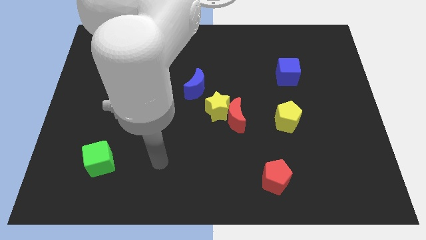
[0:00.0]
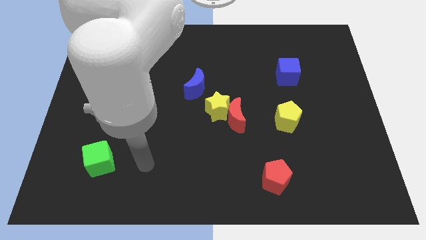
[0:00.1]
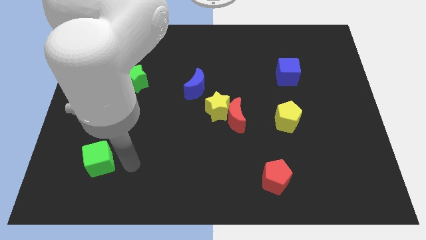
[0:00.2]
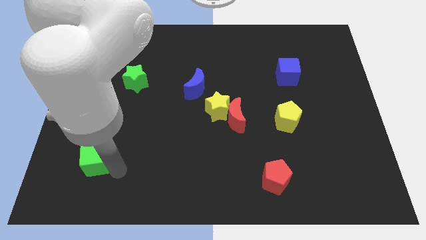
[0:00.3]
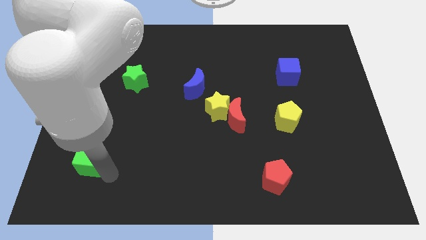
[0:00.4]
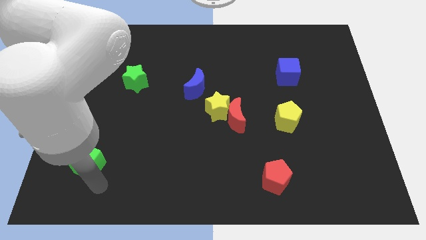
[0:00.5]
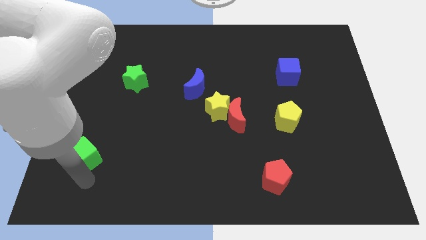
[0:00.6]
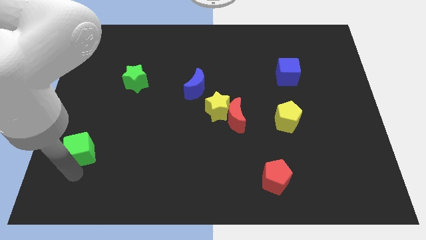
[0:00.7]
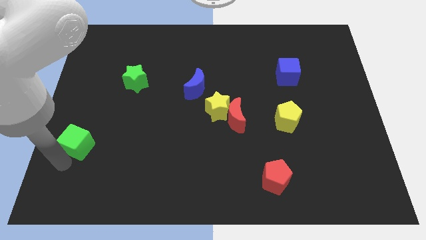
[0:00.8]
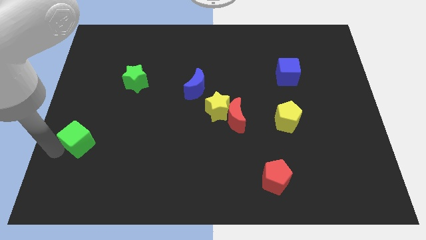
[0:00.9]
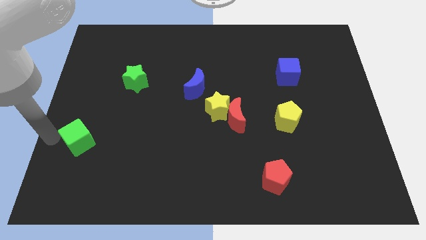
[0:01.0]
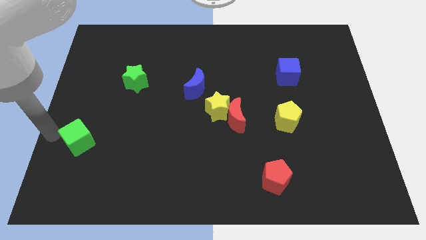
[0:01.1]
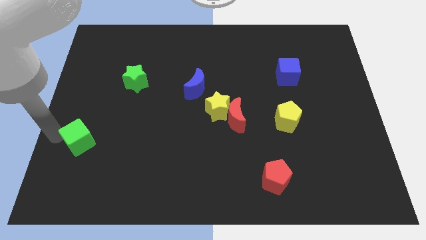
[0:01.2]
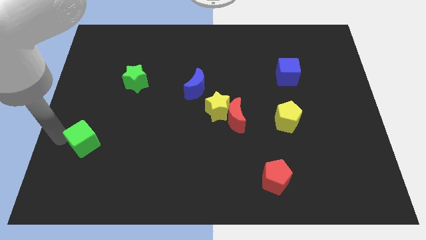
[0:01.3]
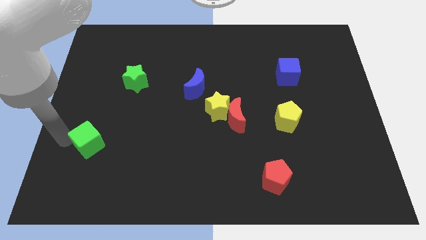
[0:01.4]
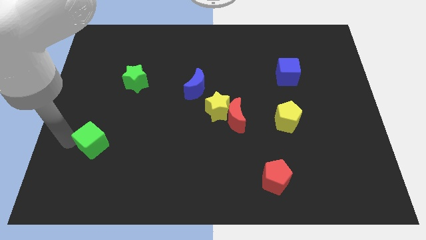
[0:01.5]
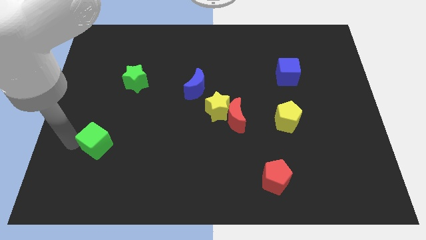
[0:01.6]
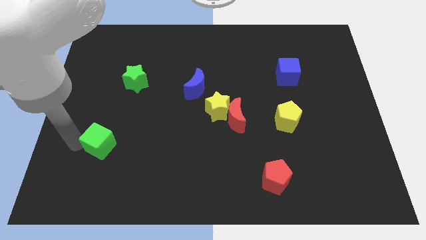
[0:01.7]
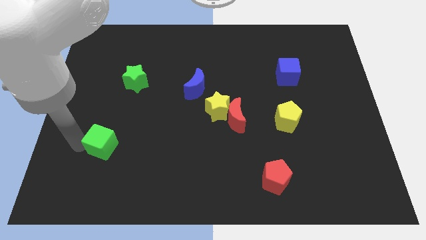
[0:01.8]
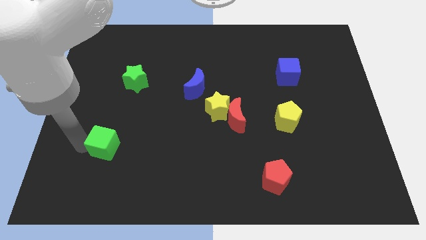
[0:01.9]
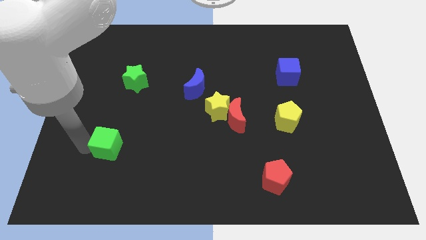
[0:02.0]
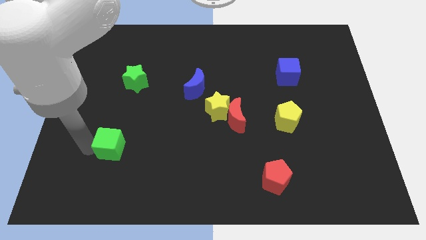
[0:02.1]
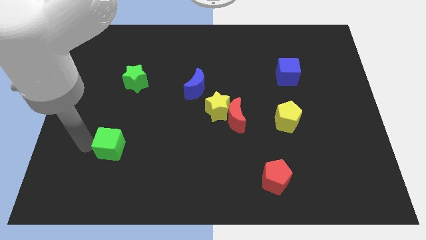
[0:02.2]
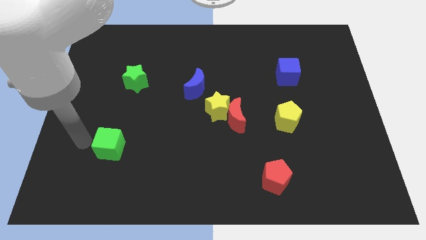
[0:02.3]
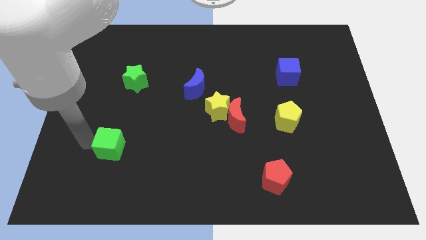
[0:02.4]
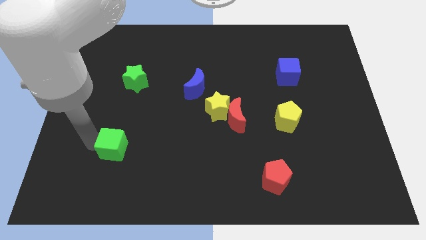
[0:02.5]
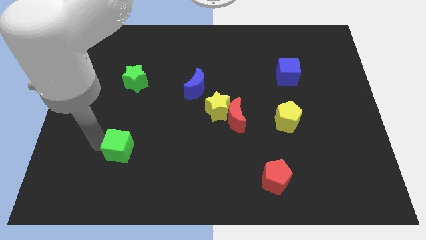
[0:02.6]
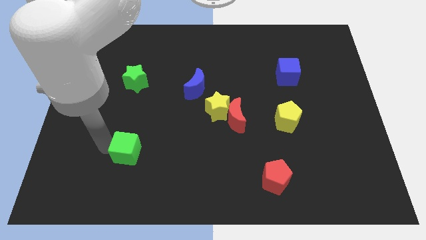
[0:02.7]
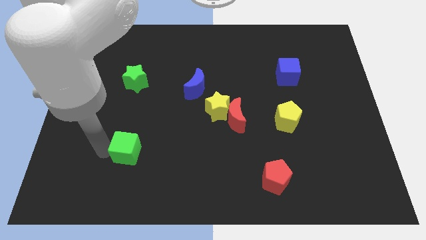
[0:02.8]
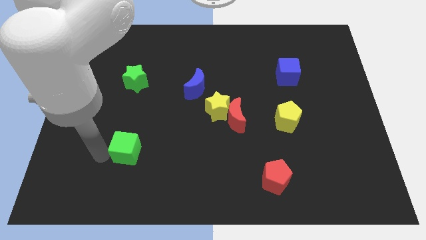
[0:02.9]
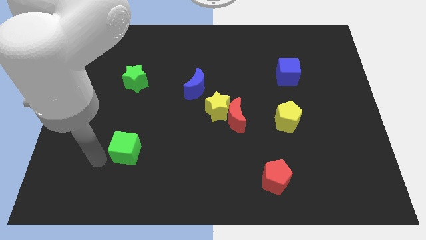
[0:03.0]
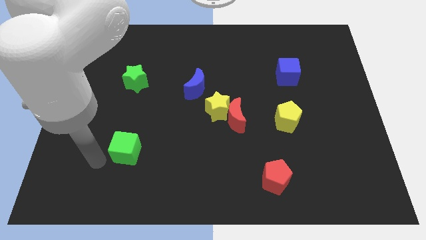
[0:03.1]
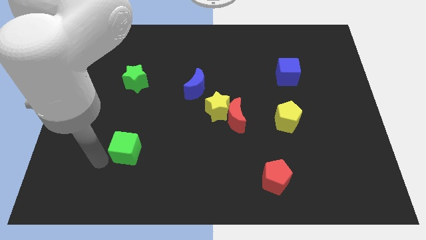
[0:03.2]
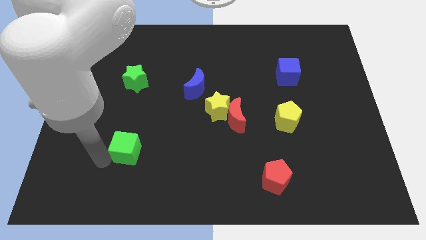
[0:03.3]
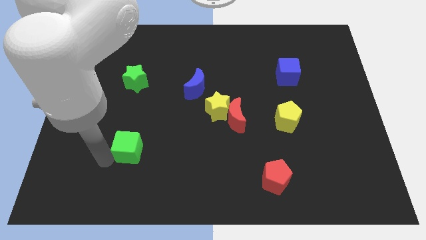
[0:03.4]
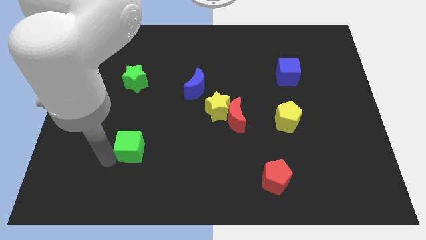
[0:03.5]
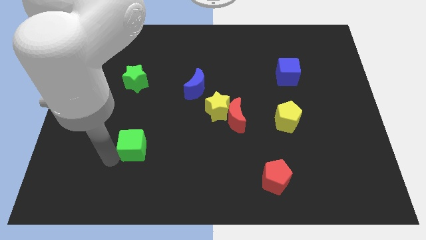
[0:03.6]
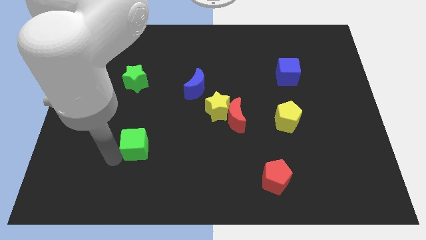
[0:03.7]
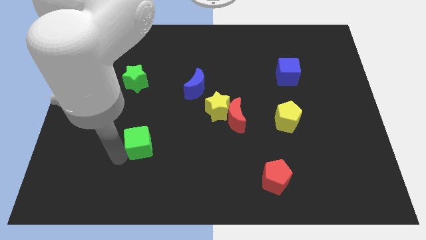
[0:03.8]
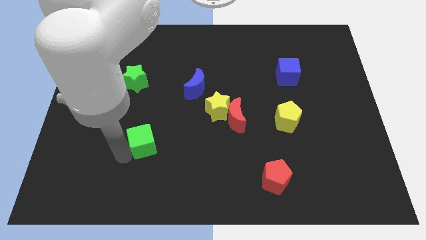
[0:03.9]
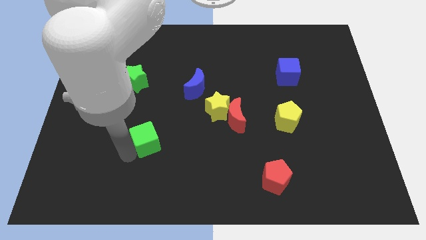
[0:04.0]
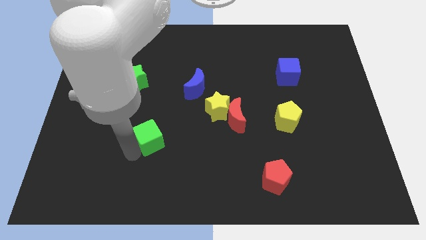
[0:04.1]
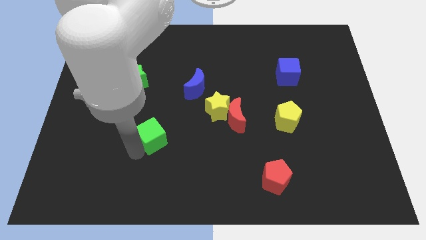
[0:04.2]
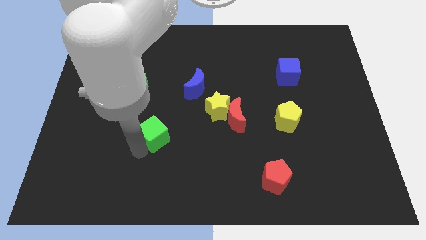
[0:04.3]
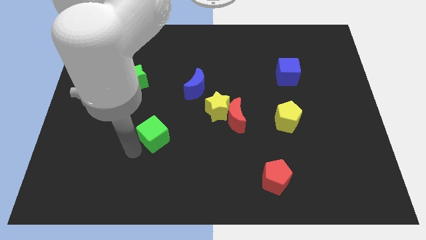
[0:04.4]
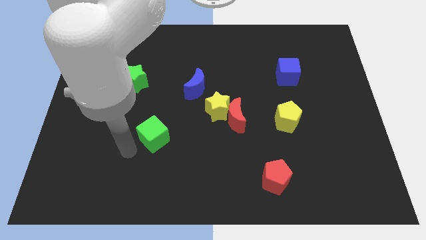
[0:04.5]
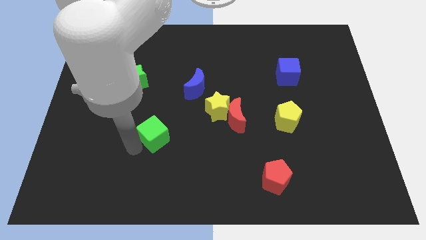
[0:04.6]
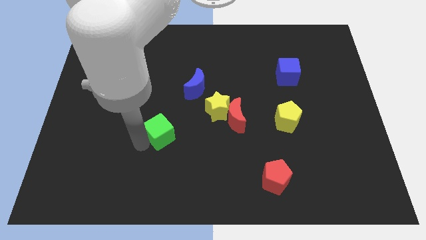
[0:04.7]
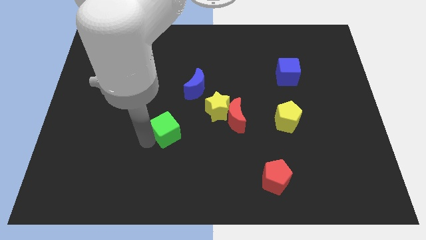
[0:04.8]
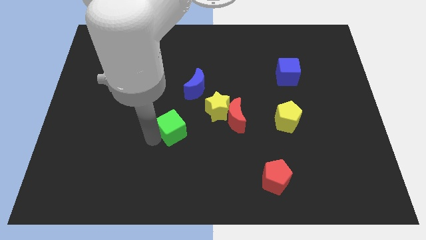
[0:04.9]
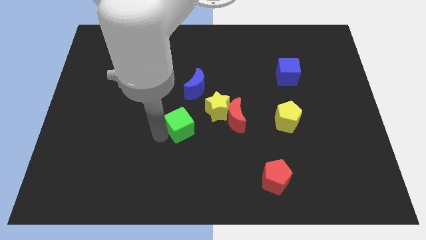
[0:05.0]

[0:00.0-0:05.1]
move the green cube below the blue moon

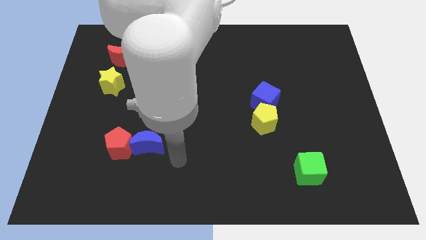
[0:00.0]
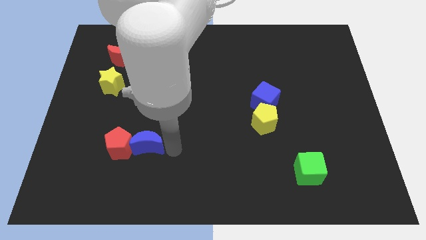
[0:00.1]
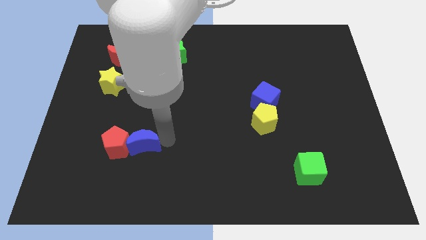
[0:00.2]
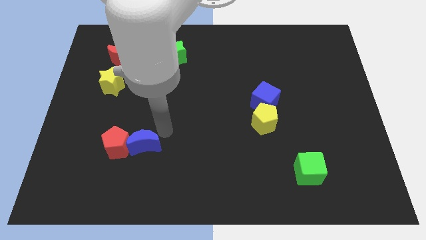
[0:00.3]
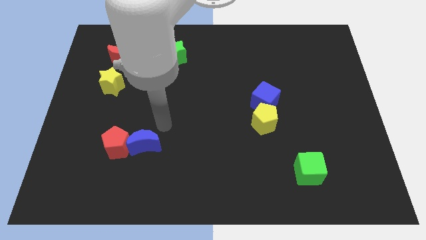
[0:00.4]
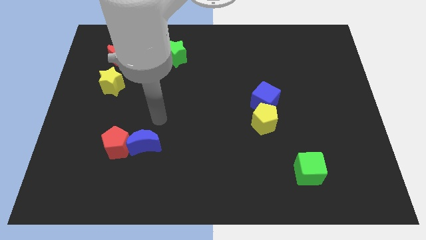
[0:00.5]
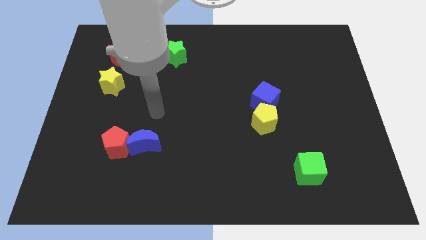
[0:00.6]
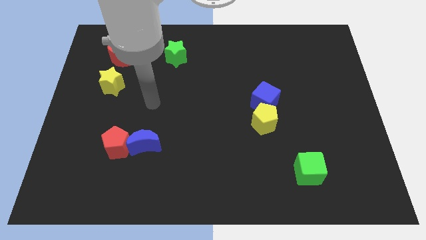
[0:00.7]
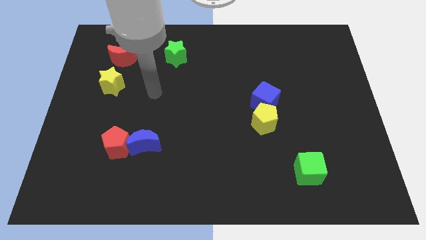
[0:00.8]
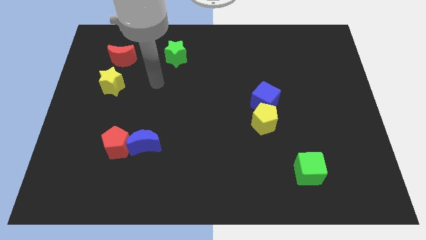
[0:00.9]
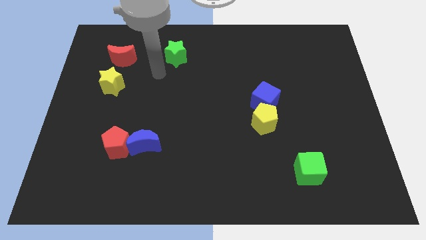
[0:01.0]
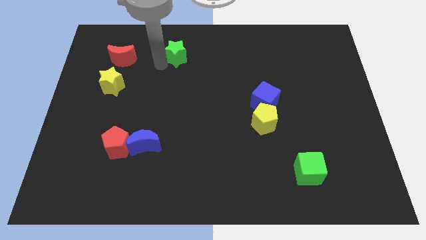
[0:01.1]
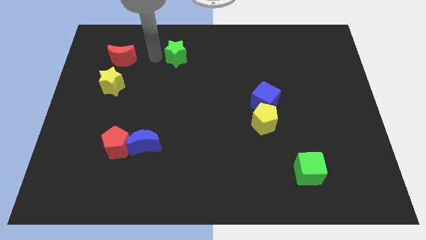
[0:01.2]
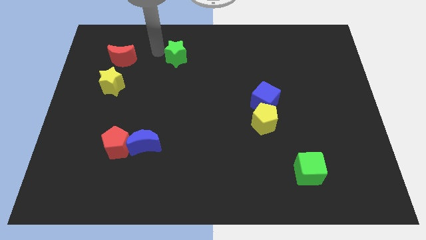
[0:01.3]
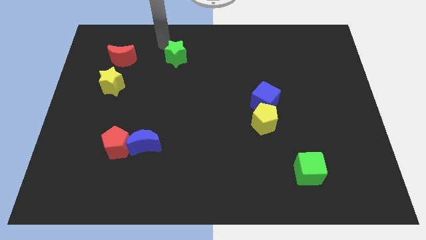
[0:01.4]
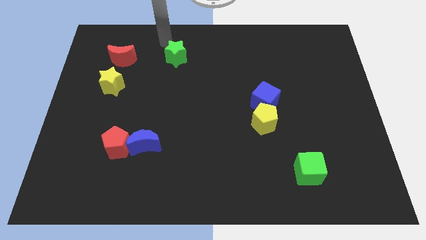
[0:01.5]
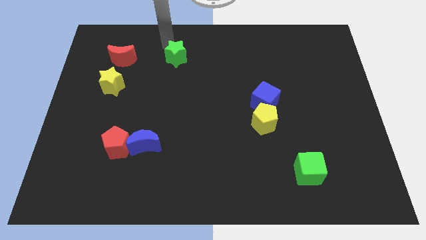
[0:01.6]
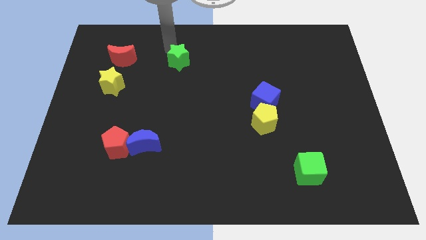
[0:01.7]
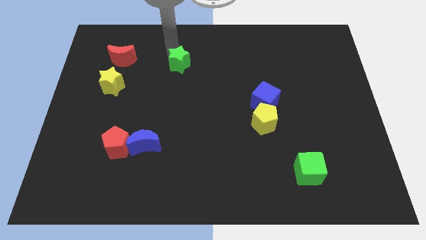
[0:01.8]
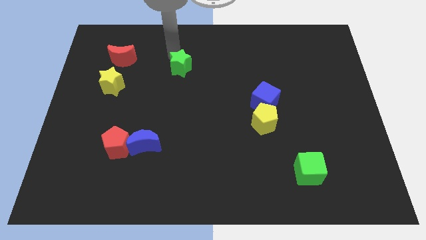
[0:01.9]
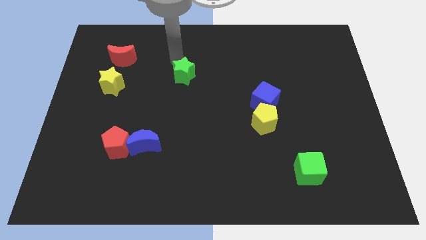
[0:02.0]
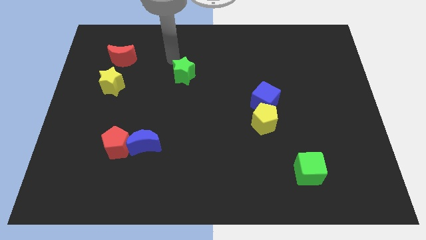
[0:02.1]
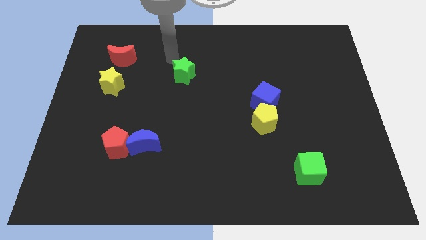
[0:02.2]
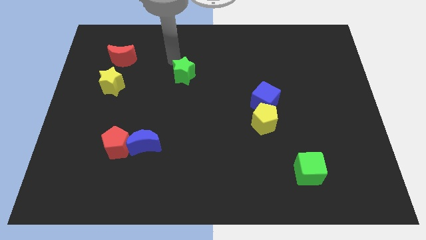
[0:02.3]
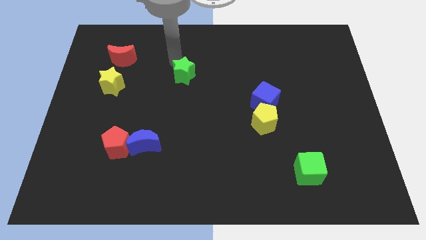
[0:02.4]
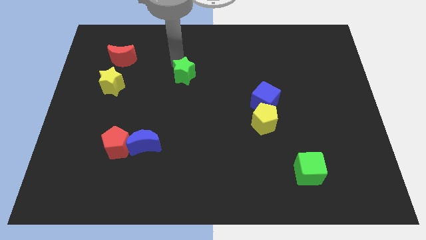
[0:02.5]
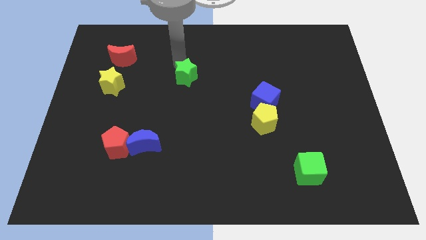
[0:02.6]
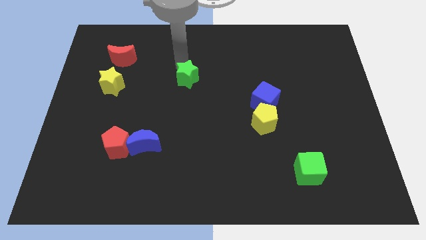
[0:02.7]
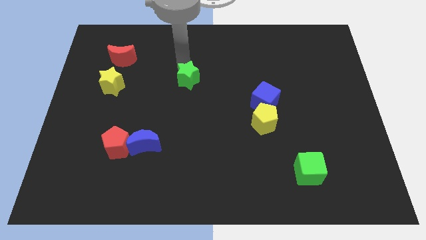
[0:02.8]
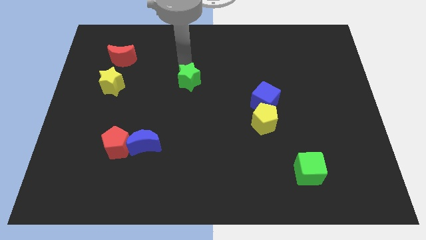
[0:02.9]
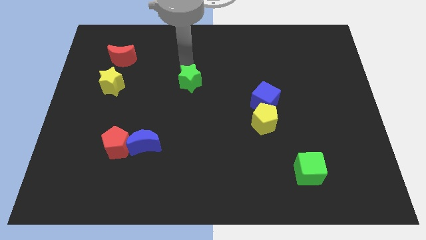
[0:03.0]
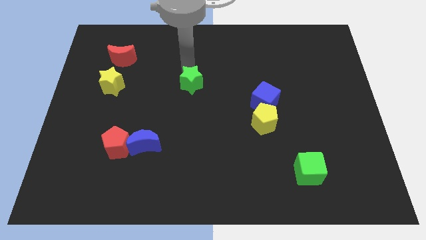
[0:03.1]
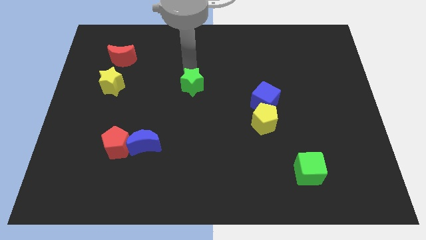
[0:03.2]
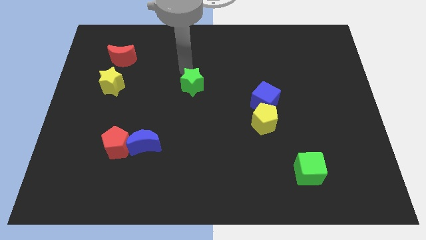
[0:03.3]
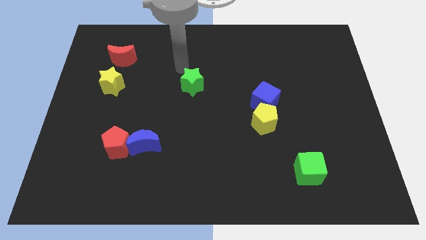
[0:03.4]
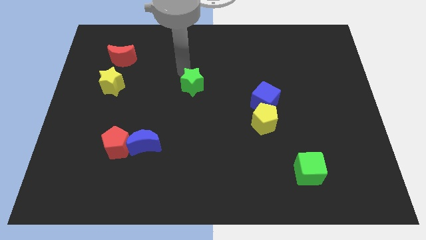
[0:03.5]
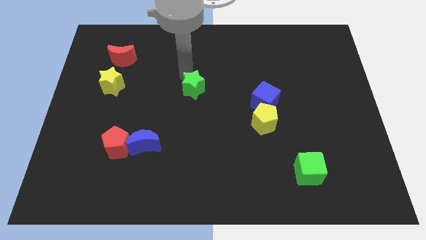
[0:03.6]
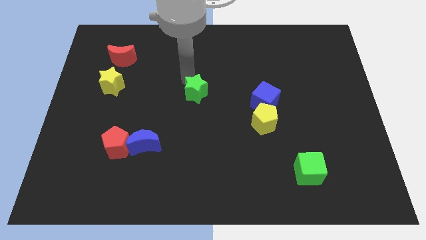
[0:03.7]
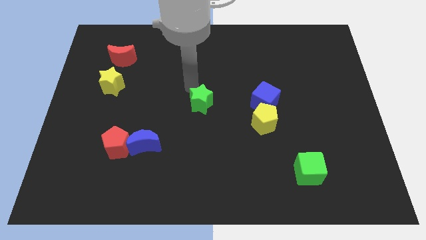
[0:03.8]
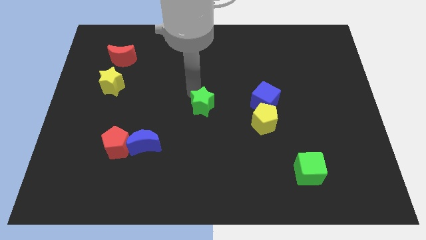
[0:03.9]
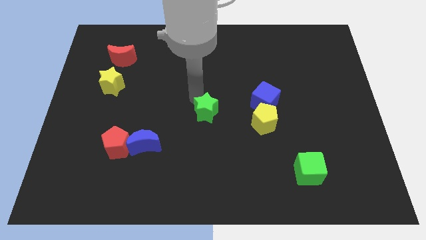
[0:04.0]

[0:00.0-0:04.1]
move the green star to the left side of the yellow pentagon
